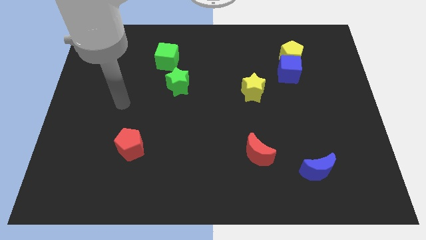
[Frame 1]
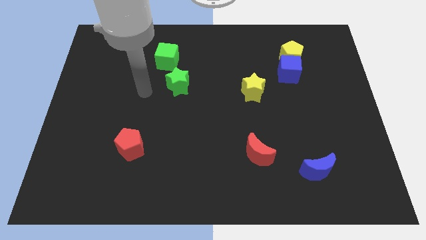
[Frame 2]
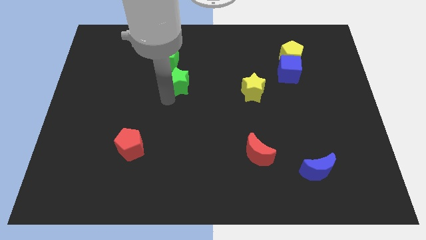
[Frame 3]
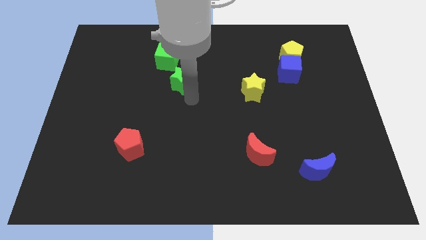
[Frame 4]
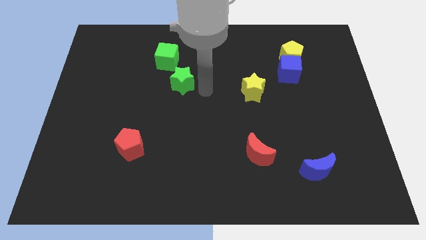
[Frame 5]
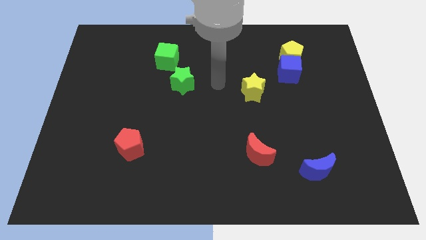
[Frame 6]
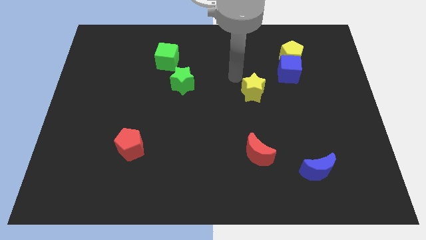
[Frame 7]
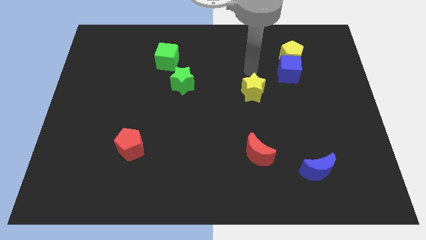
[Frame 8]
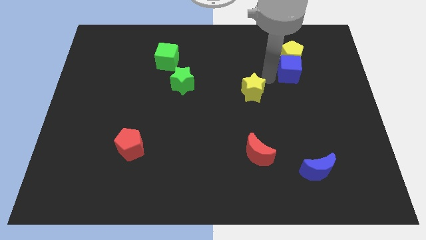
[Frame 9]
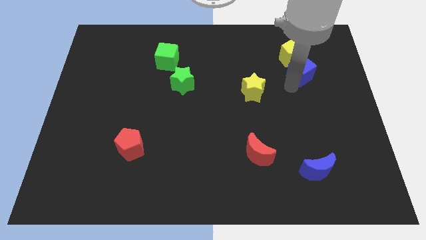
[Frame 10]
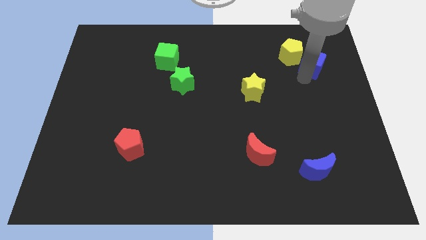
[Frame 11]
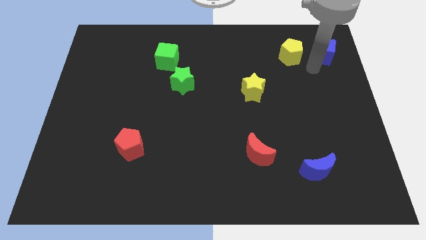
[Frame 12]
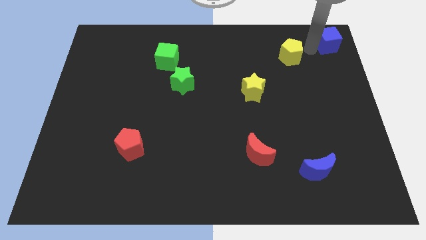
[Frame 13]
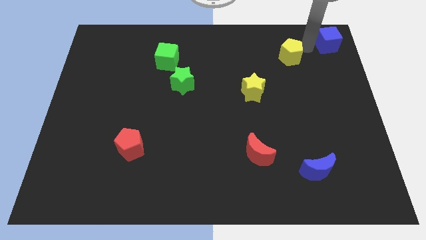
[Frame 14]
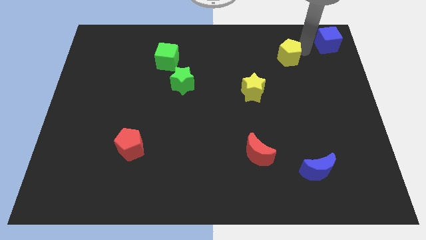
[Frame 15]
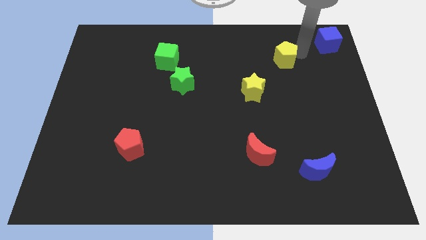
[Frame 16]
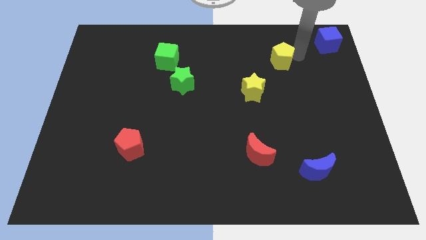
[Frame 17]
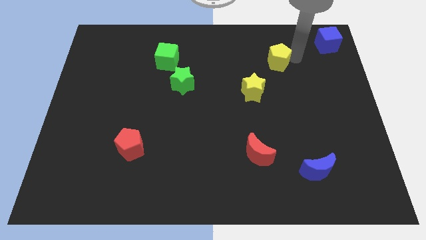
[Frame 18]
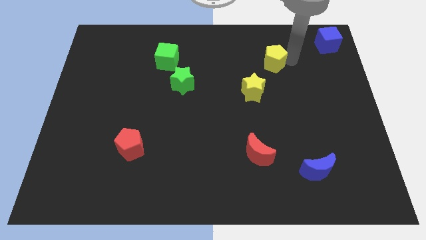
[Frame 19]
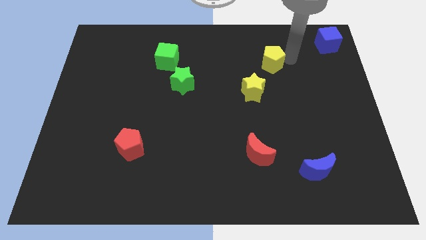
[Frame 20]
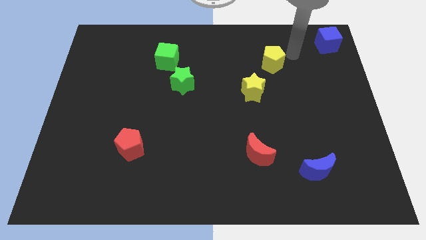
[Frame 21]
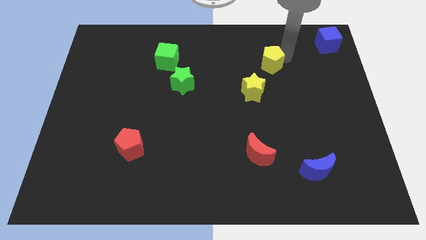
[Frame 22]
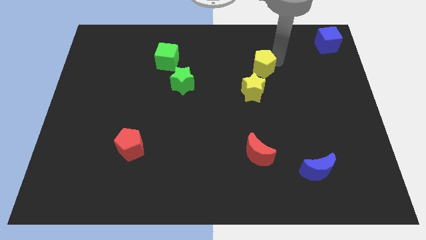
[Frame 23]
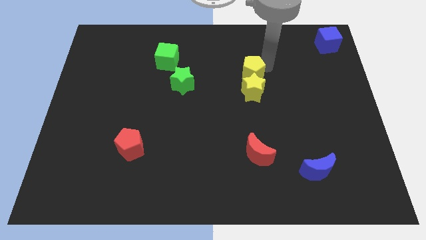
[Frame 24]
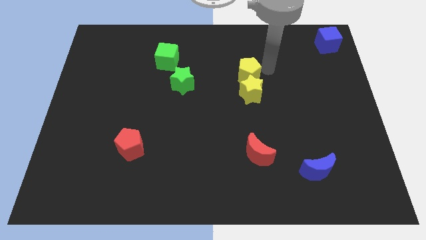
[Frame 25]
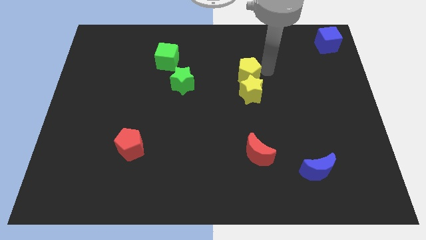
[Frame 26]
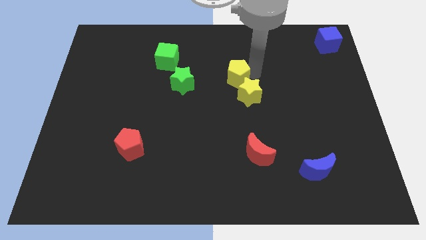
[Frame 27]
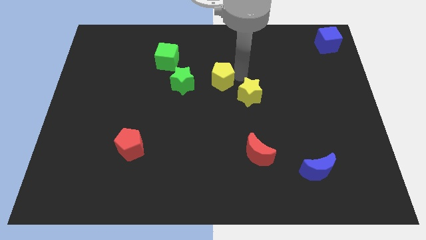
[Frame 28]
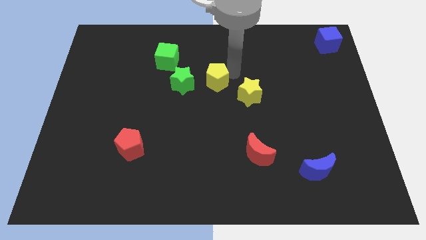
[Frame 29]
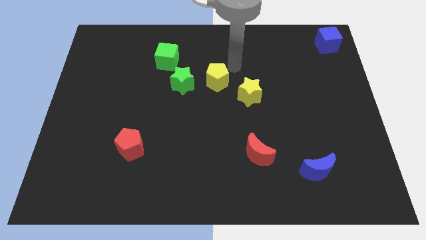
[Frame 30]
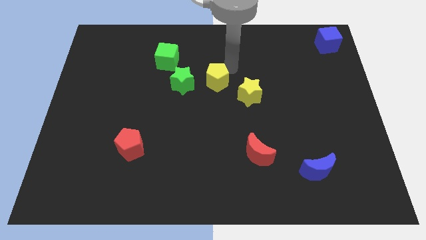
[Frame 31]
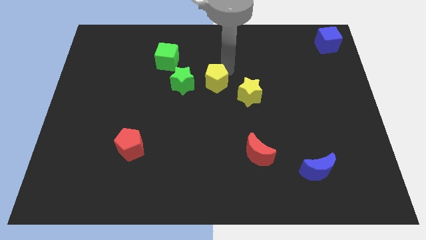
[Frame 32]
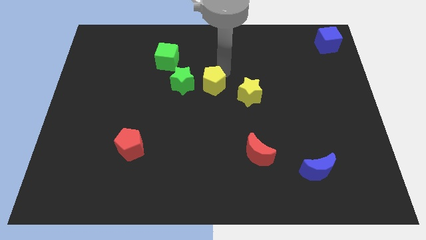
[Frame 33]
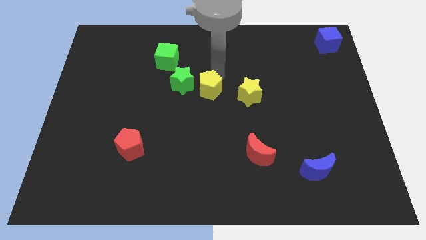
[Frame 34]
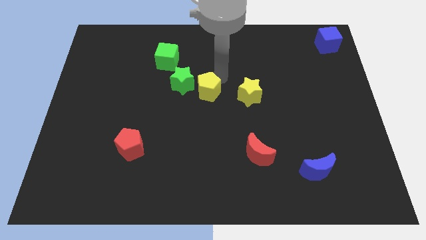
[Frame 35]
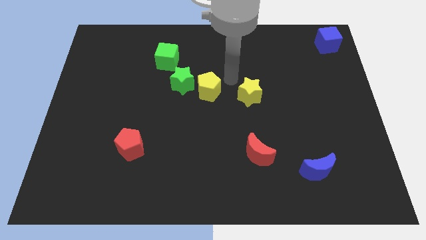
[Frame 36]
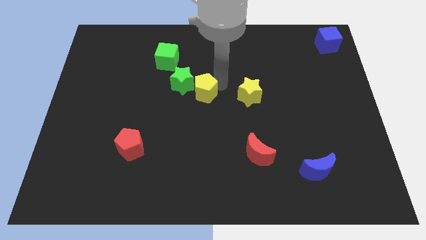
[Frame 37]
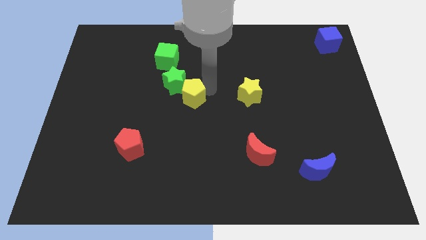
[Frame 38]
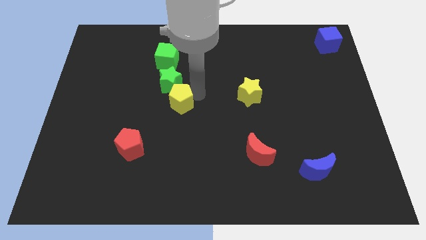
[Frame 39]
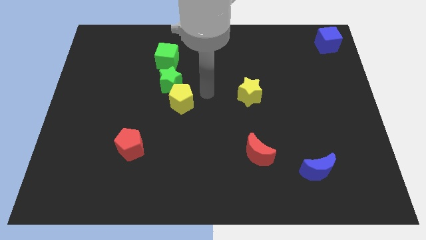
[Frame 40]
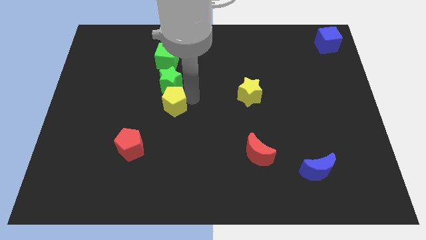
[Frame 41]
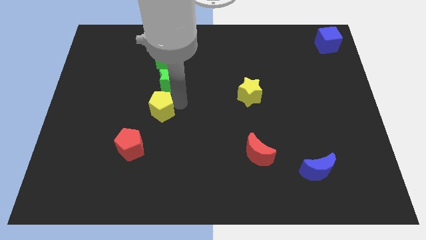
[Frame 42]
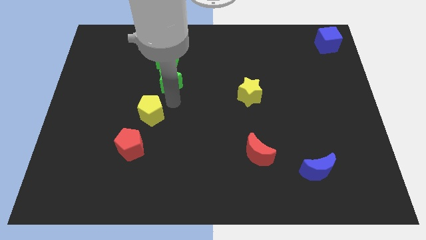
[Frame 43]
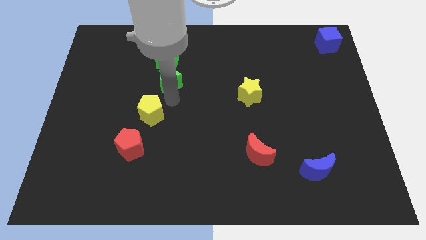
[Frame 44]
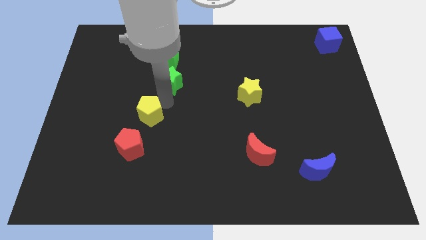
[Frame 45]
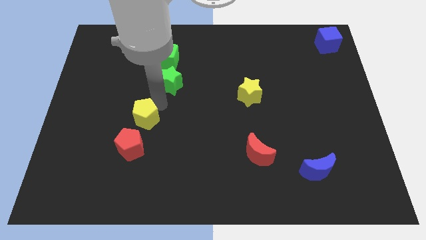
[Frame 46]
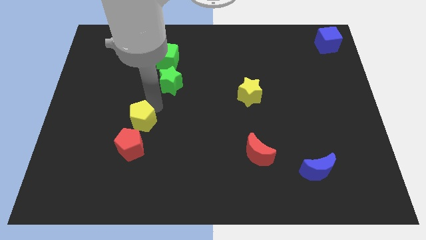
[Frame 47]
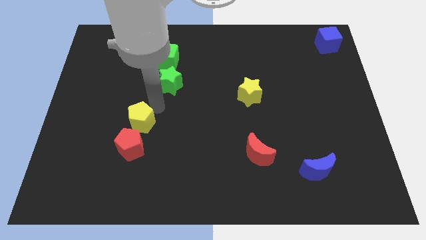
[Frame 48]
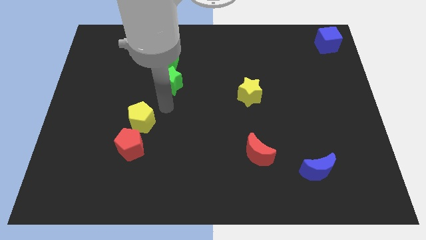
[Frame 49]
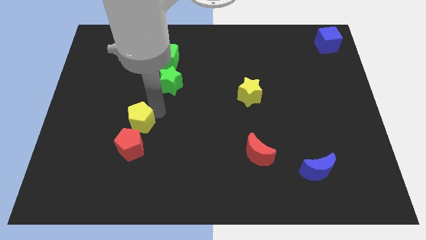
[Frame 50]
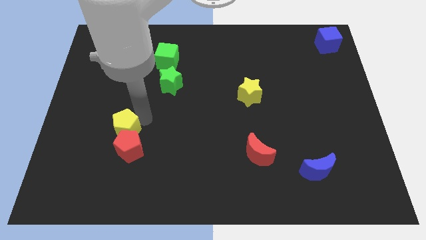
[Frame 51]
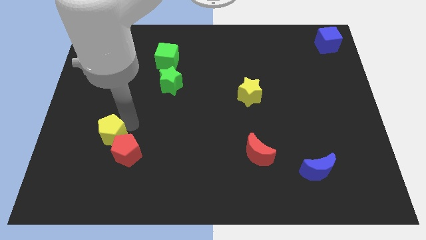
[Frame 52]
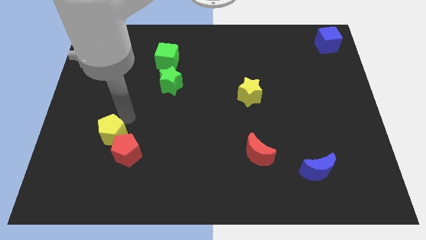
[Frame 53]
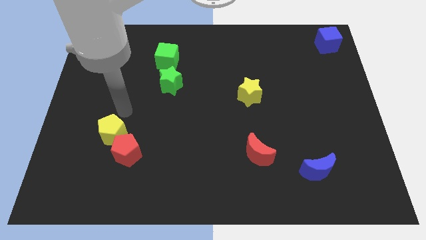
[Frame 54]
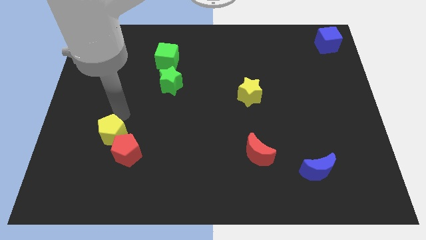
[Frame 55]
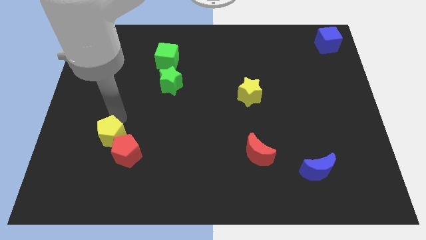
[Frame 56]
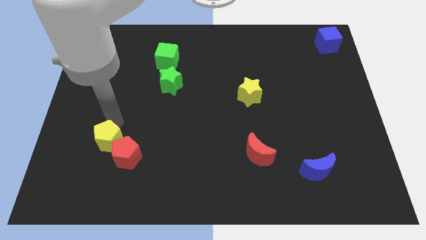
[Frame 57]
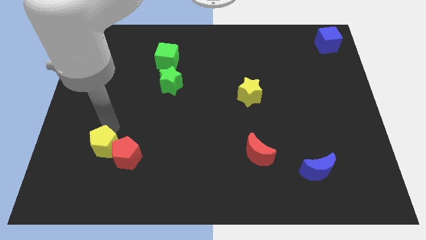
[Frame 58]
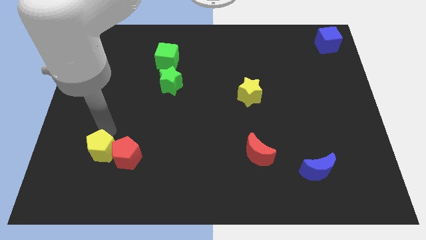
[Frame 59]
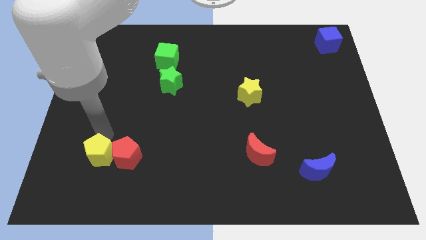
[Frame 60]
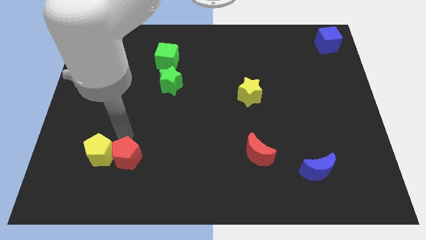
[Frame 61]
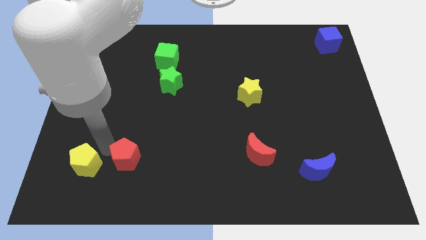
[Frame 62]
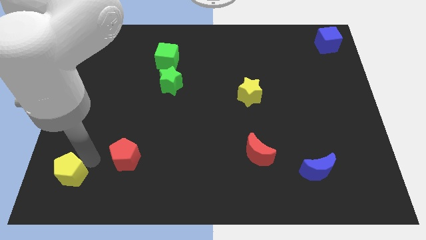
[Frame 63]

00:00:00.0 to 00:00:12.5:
put the yellow pentagon to the bottom left

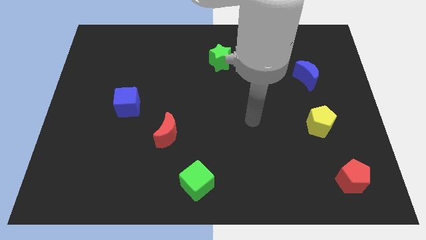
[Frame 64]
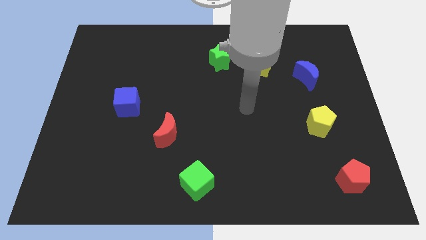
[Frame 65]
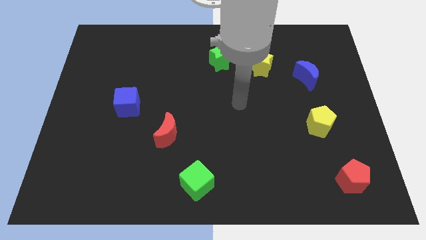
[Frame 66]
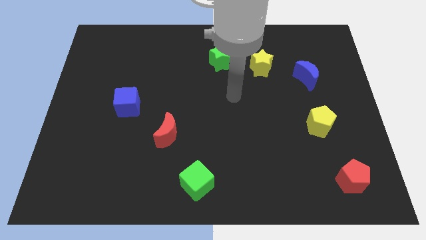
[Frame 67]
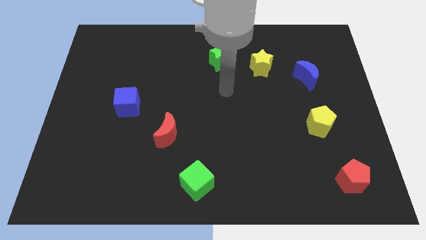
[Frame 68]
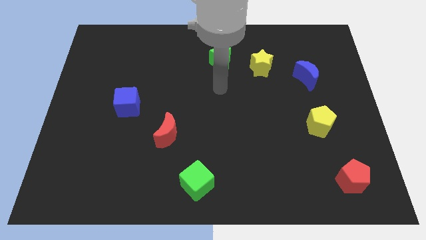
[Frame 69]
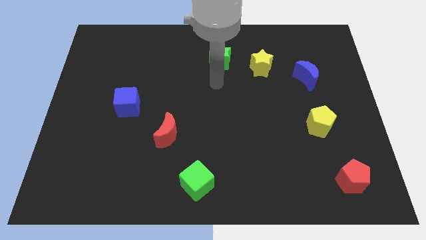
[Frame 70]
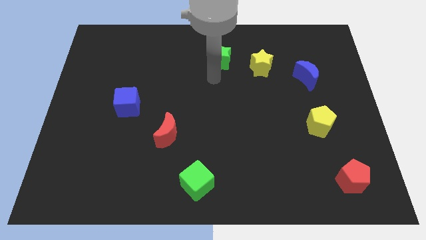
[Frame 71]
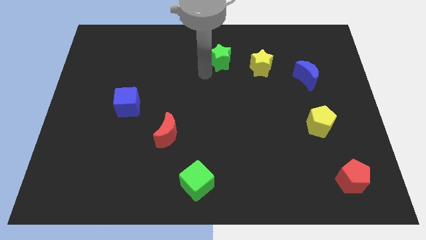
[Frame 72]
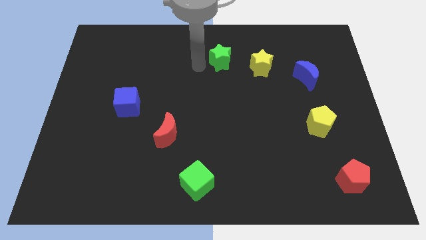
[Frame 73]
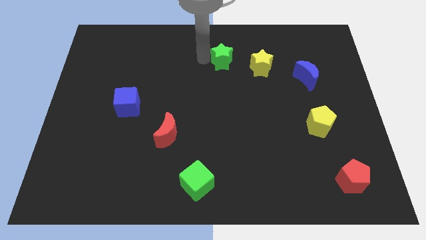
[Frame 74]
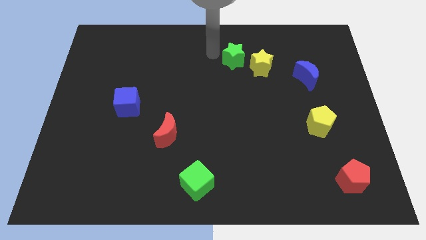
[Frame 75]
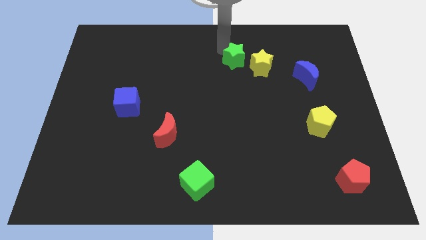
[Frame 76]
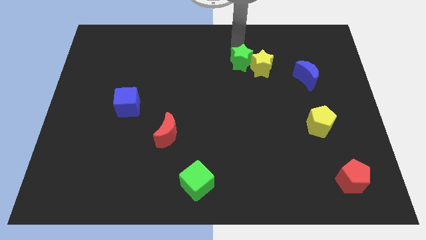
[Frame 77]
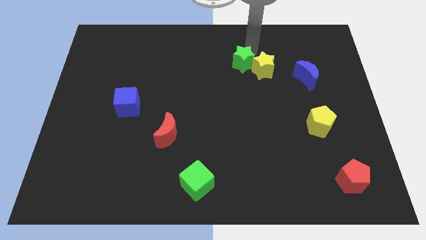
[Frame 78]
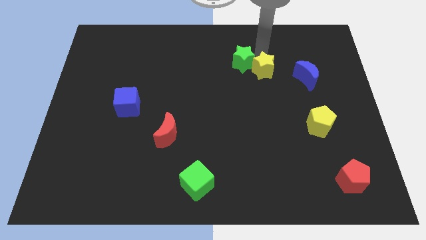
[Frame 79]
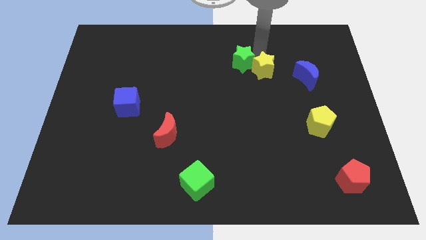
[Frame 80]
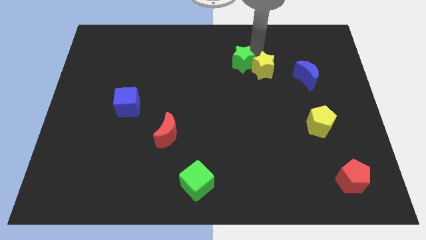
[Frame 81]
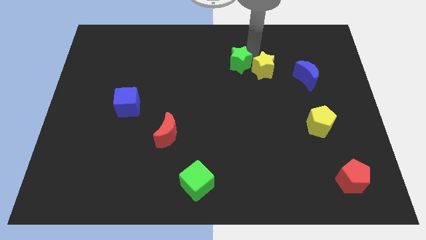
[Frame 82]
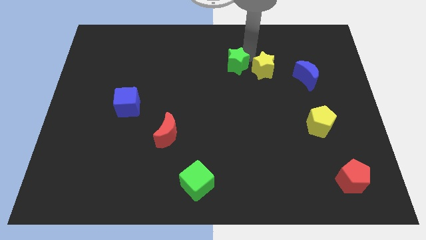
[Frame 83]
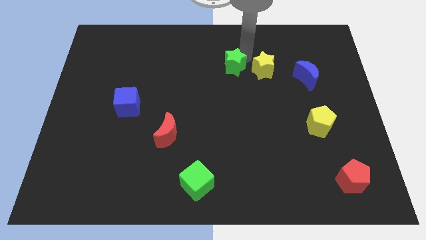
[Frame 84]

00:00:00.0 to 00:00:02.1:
push the green star to the center of the board
